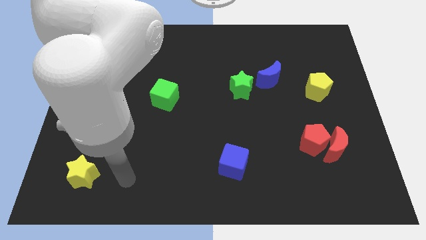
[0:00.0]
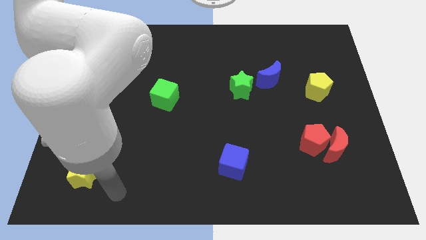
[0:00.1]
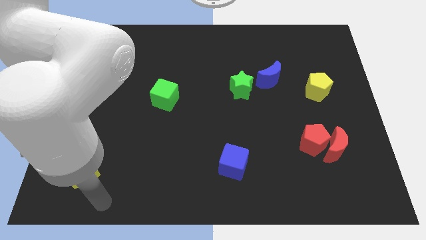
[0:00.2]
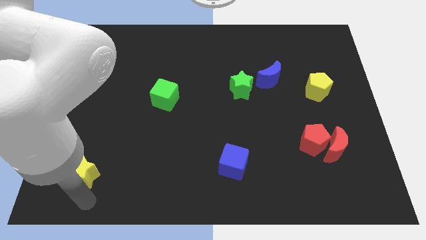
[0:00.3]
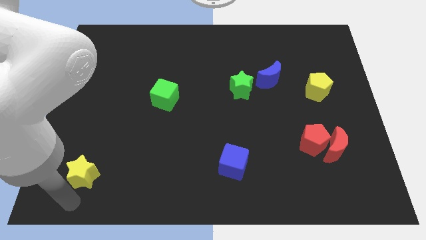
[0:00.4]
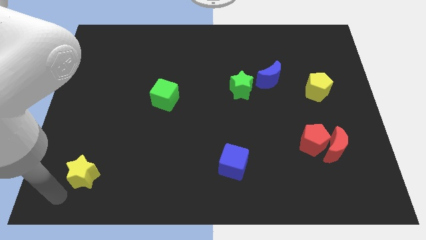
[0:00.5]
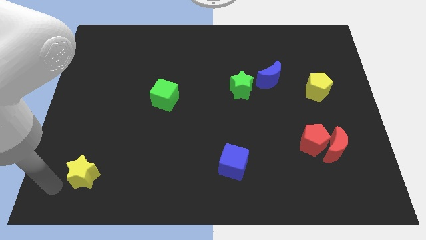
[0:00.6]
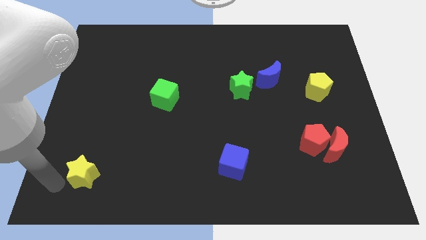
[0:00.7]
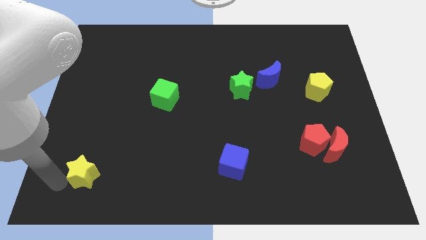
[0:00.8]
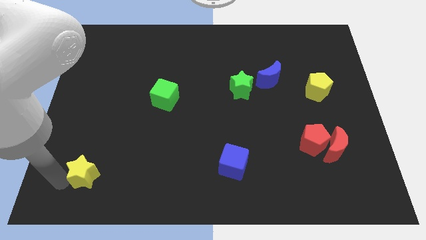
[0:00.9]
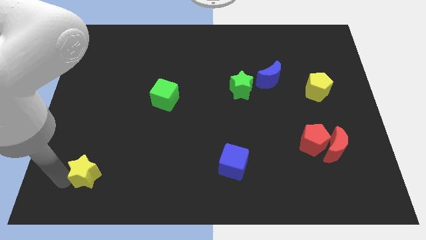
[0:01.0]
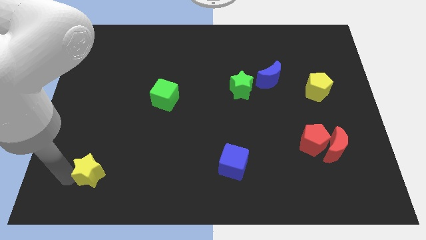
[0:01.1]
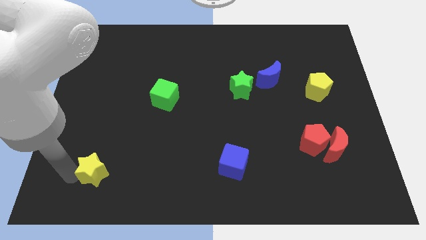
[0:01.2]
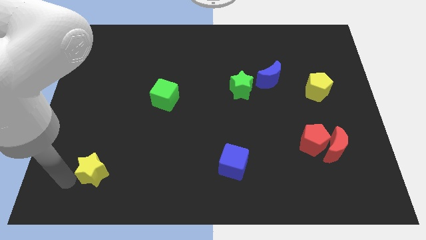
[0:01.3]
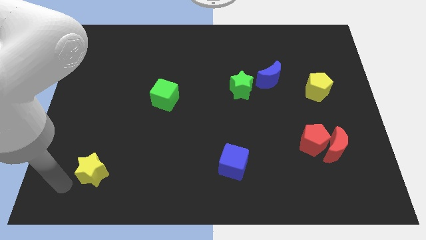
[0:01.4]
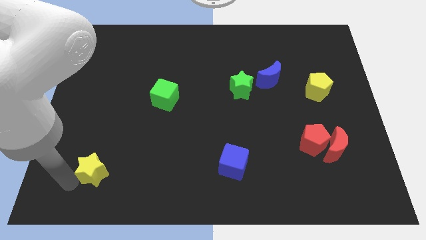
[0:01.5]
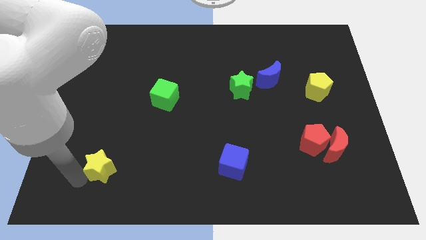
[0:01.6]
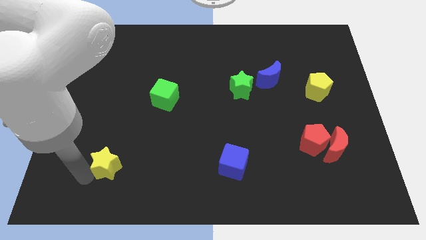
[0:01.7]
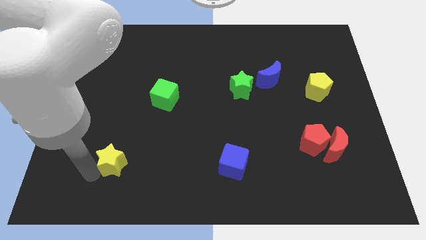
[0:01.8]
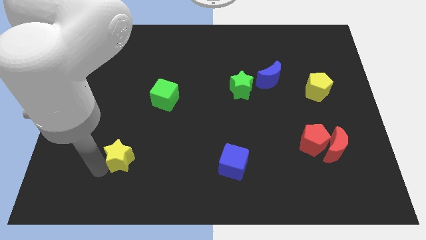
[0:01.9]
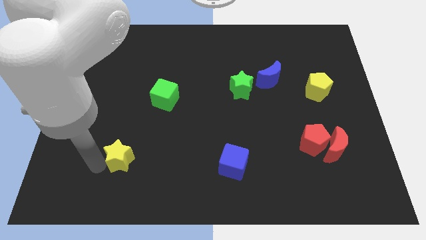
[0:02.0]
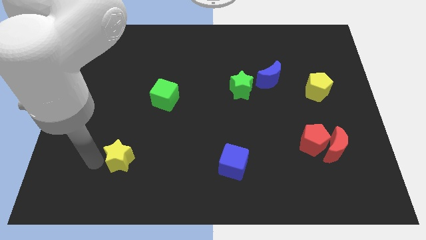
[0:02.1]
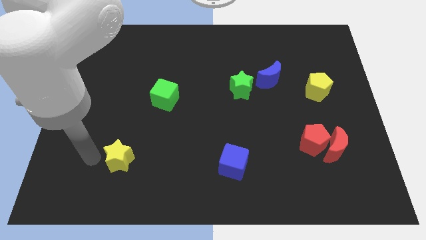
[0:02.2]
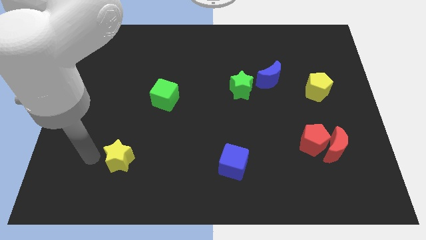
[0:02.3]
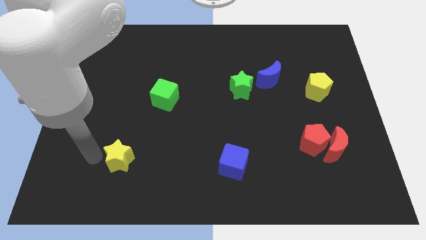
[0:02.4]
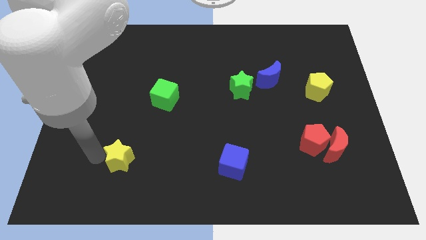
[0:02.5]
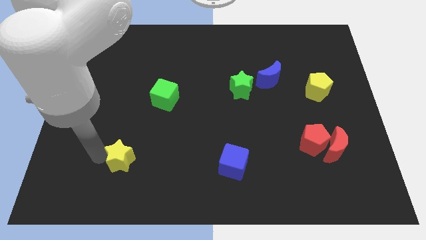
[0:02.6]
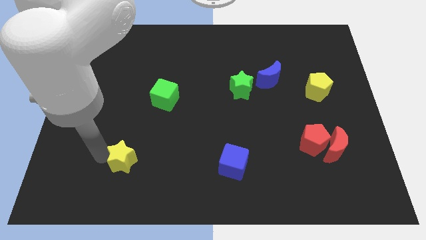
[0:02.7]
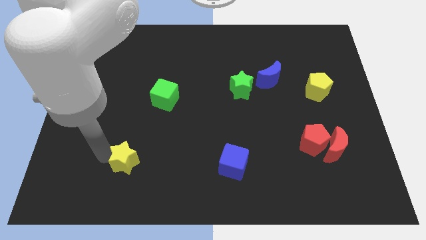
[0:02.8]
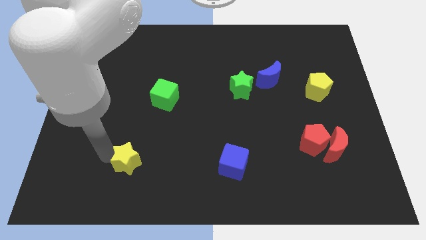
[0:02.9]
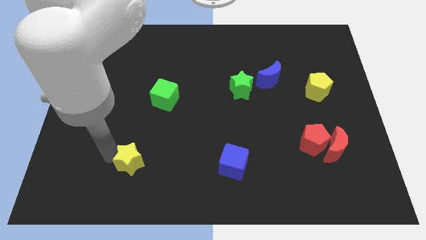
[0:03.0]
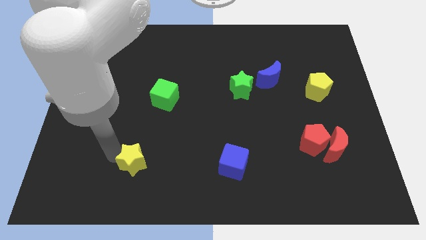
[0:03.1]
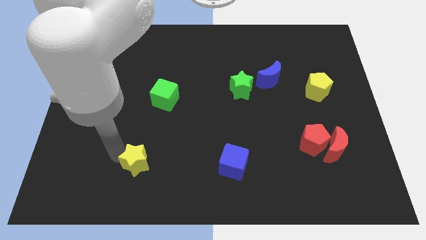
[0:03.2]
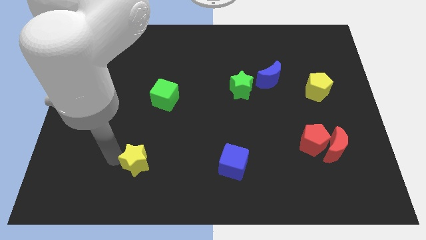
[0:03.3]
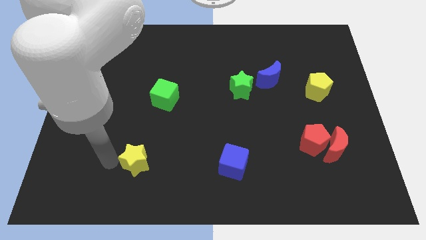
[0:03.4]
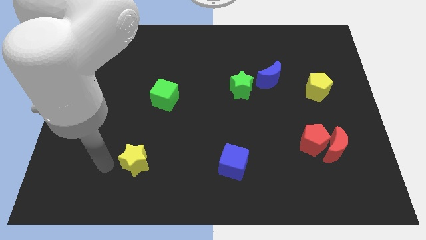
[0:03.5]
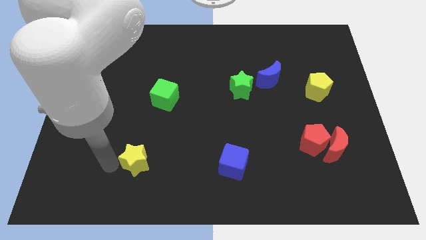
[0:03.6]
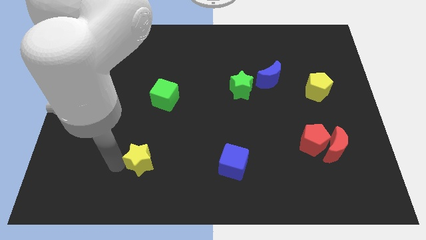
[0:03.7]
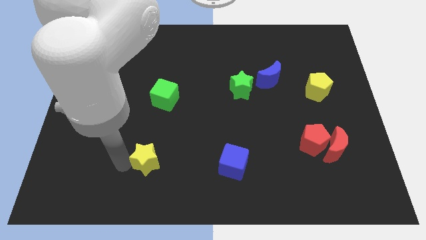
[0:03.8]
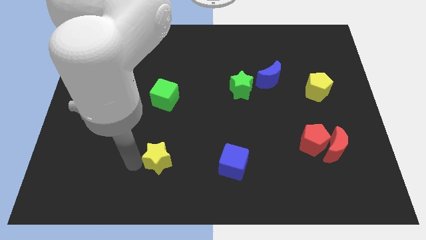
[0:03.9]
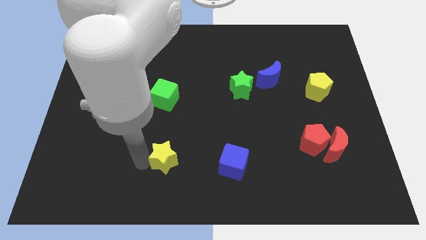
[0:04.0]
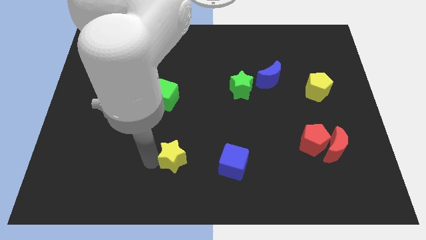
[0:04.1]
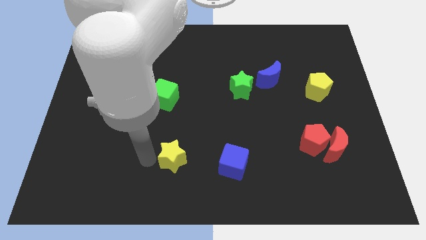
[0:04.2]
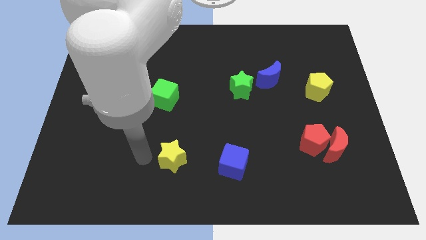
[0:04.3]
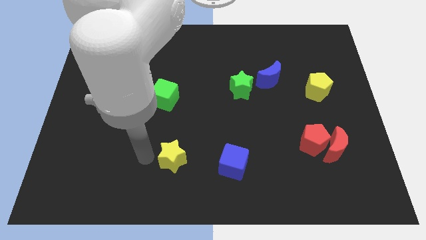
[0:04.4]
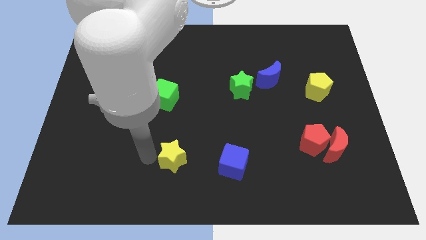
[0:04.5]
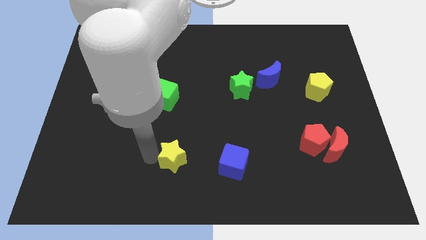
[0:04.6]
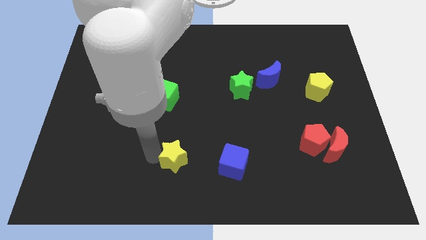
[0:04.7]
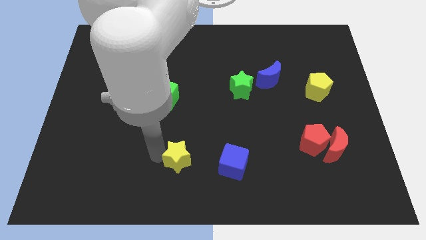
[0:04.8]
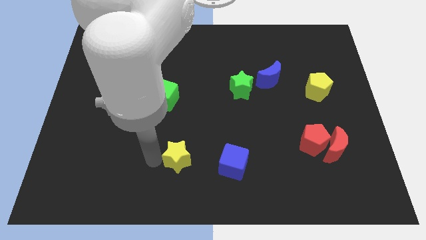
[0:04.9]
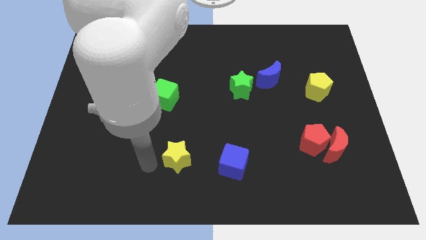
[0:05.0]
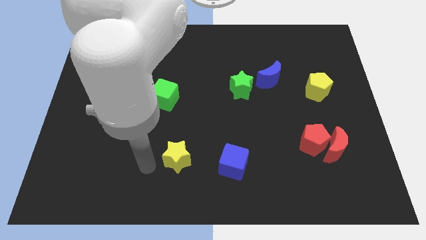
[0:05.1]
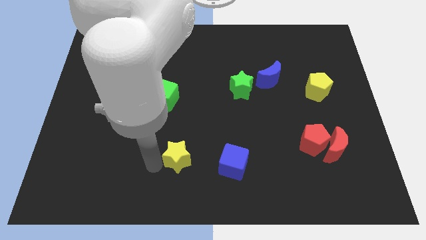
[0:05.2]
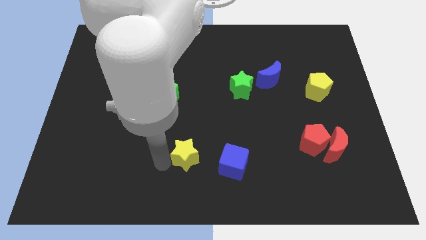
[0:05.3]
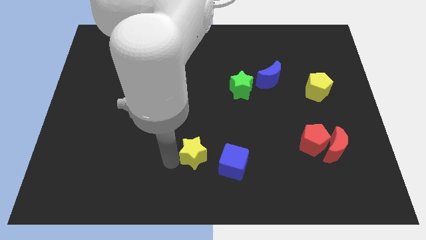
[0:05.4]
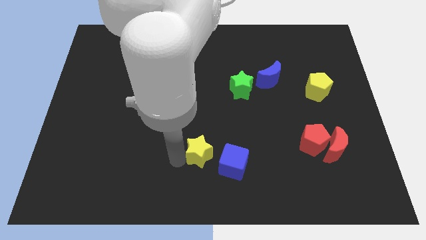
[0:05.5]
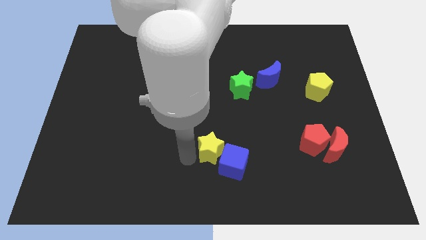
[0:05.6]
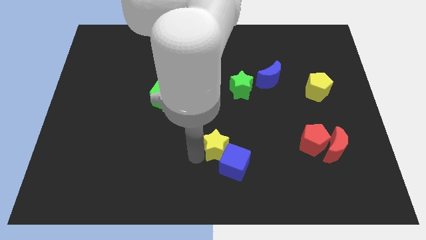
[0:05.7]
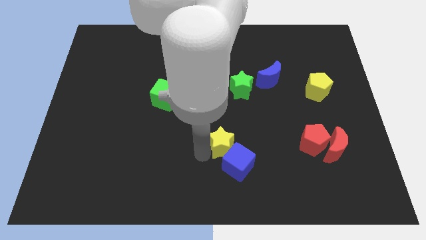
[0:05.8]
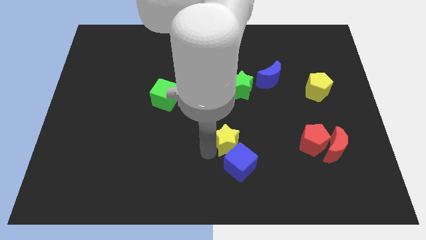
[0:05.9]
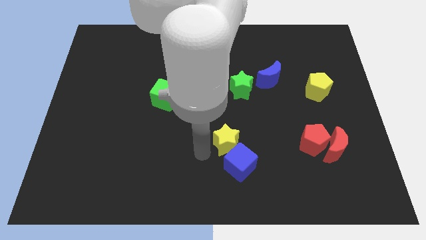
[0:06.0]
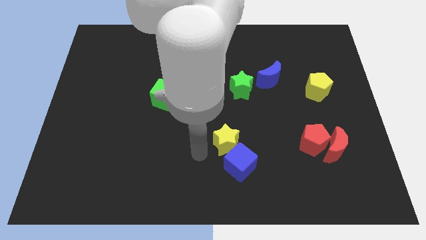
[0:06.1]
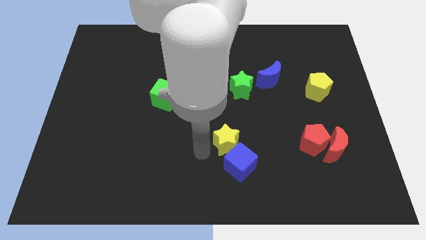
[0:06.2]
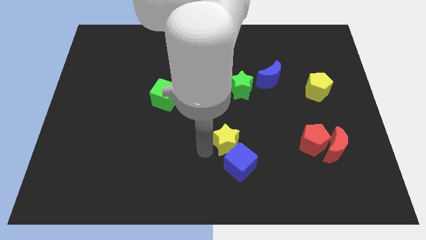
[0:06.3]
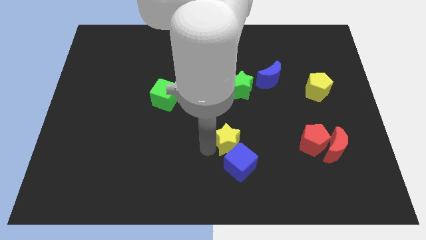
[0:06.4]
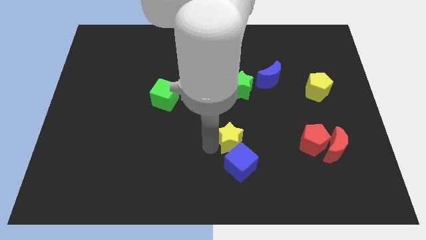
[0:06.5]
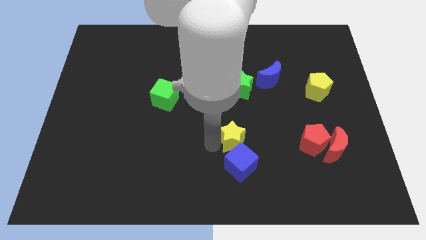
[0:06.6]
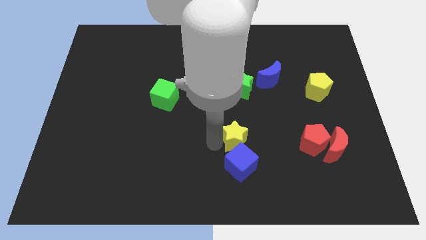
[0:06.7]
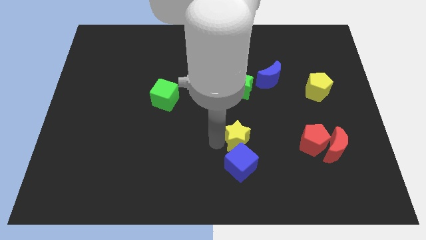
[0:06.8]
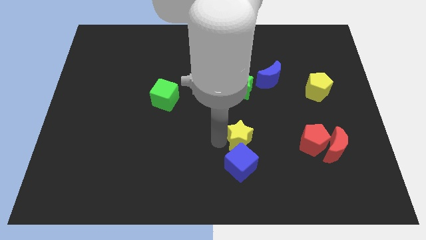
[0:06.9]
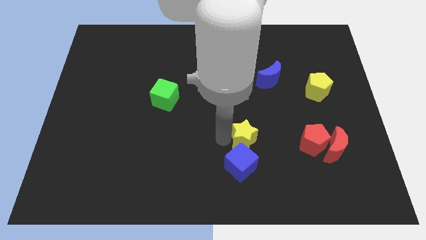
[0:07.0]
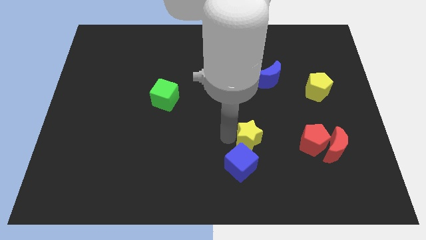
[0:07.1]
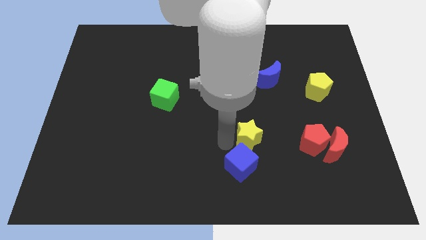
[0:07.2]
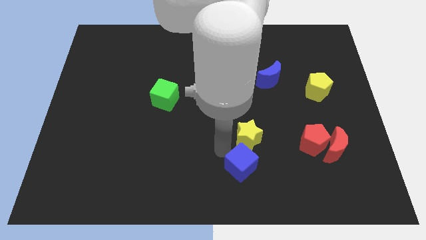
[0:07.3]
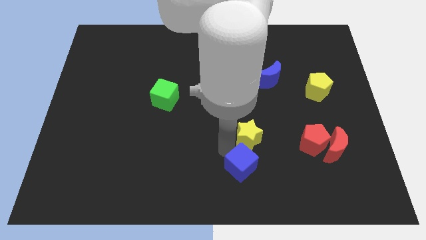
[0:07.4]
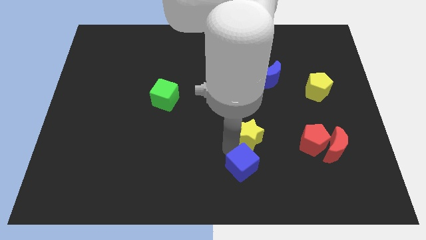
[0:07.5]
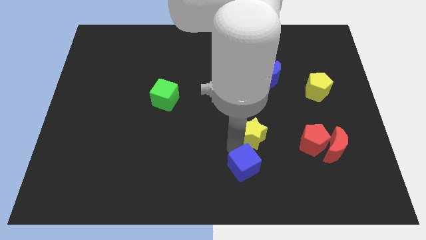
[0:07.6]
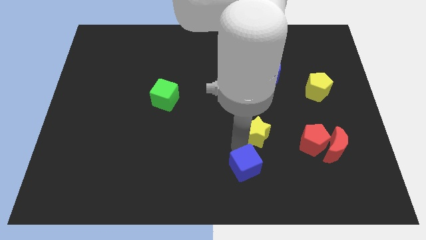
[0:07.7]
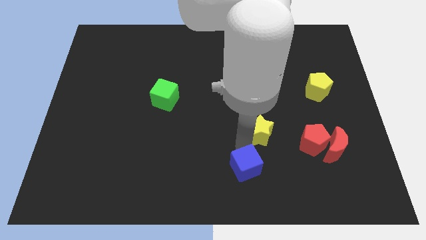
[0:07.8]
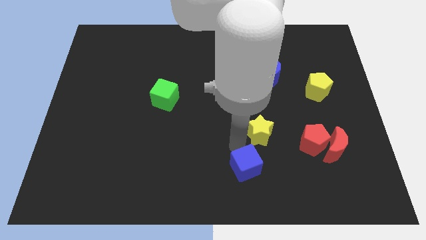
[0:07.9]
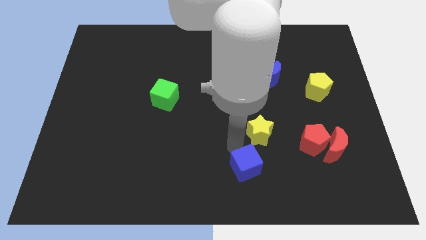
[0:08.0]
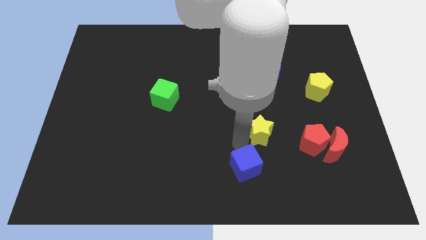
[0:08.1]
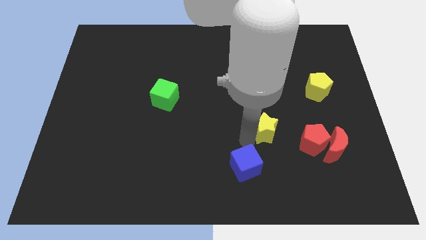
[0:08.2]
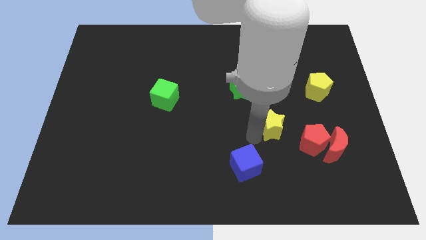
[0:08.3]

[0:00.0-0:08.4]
slide the yellow star to the top left side of the red pentagon
